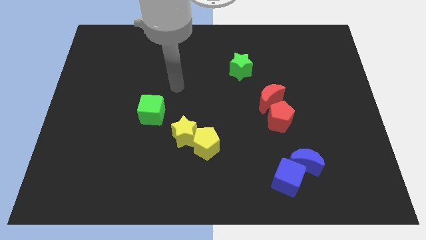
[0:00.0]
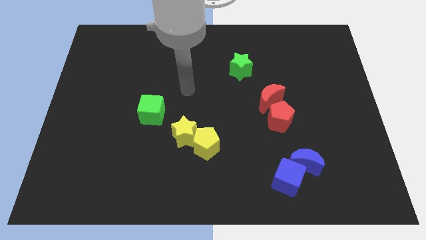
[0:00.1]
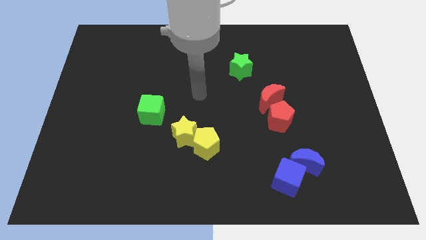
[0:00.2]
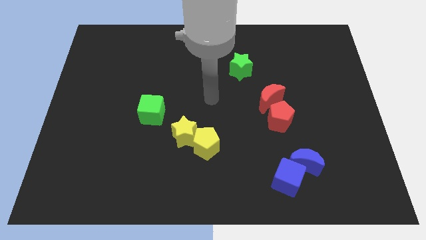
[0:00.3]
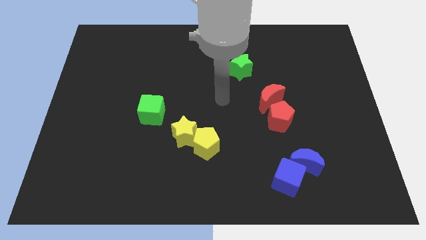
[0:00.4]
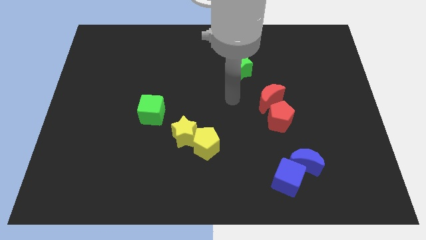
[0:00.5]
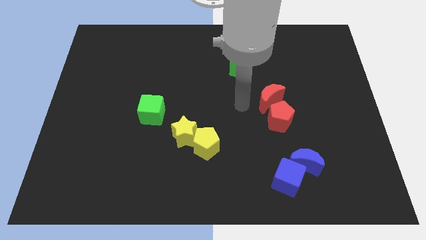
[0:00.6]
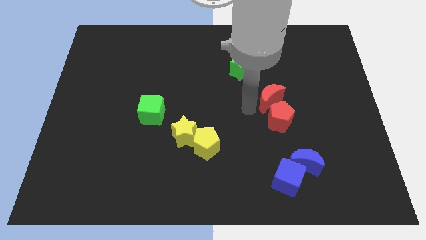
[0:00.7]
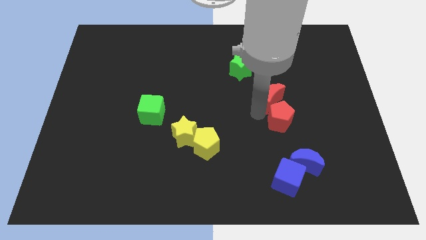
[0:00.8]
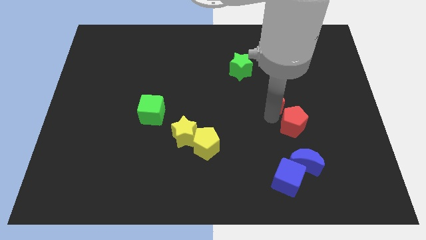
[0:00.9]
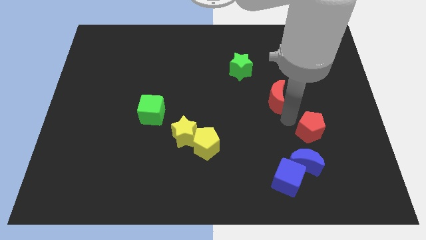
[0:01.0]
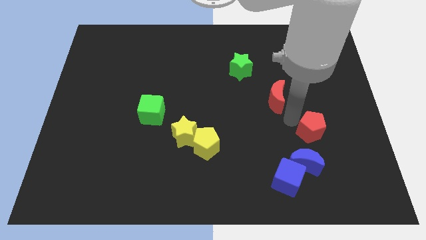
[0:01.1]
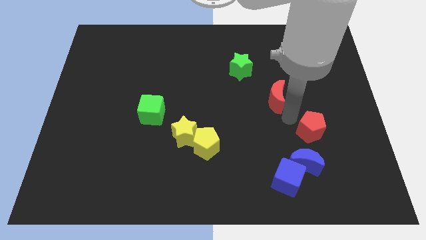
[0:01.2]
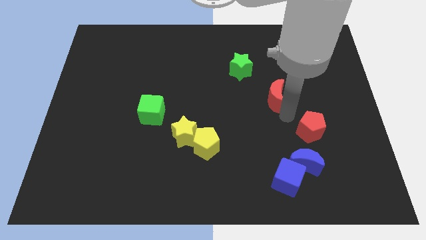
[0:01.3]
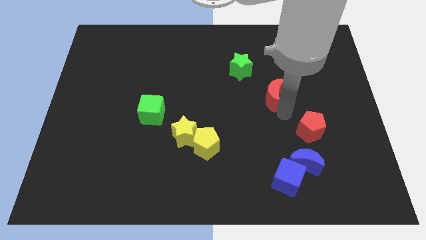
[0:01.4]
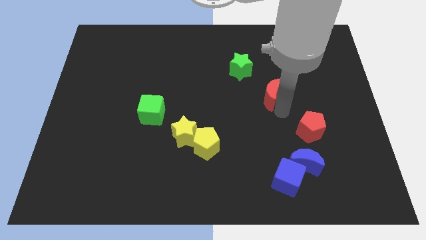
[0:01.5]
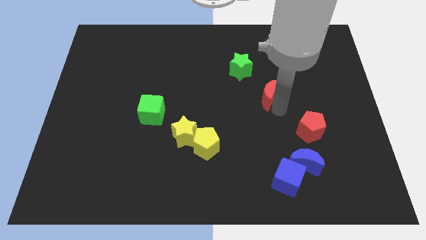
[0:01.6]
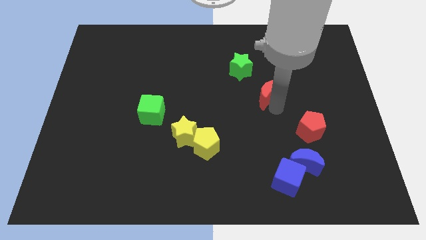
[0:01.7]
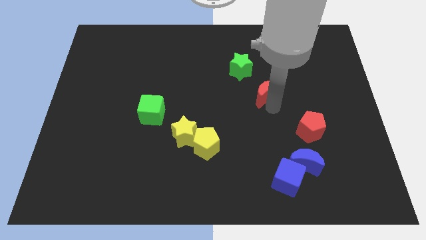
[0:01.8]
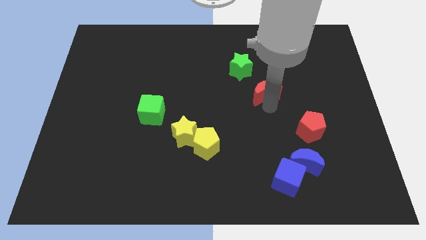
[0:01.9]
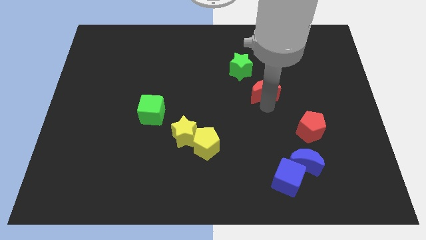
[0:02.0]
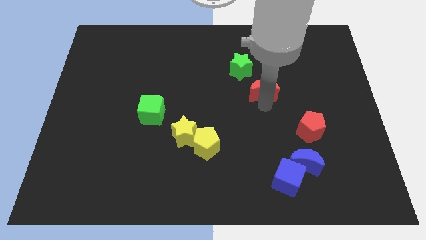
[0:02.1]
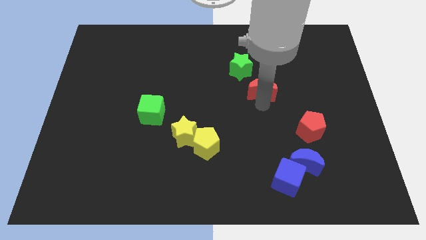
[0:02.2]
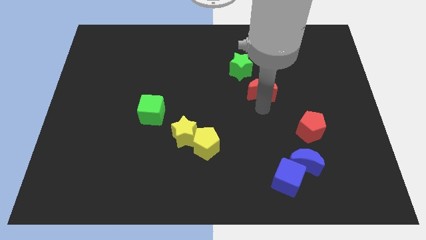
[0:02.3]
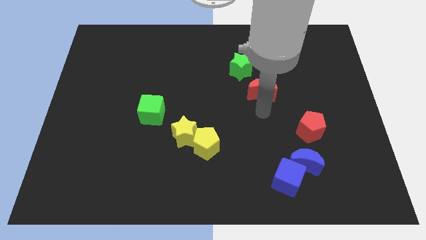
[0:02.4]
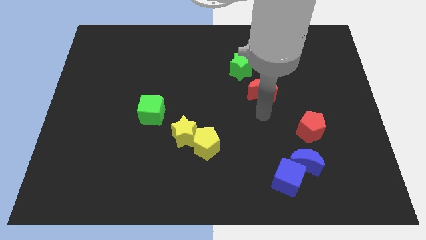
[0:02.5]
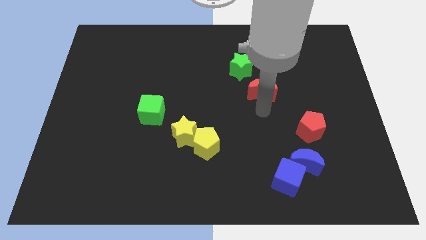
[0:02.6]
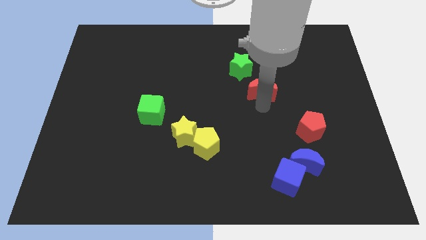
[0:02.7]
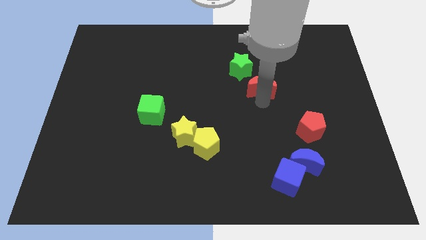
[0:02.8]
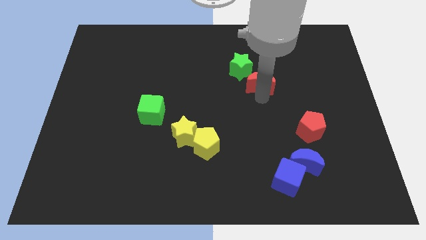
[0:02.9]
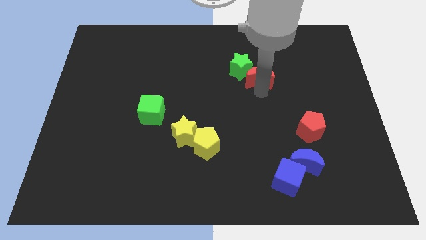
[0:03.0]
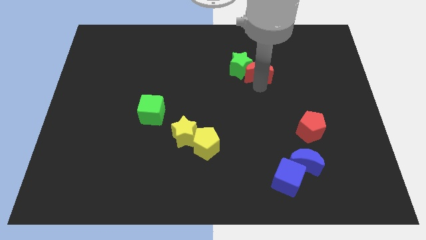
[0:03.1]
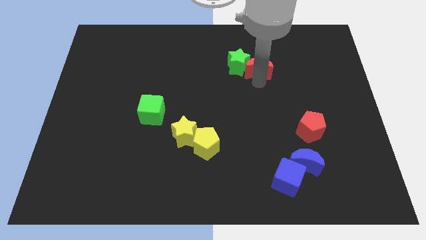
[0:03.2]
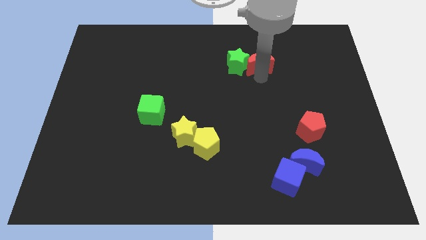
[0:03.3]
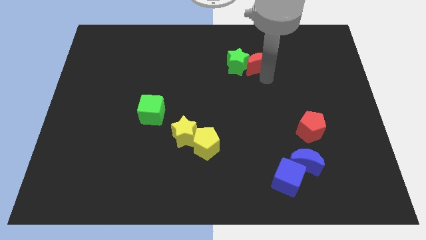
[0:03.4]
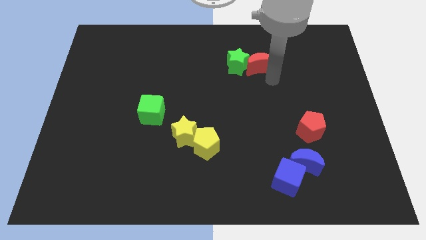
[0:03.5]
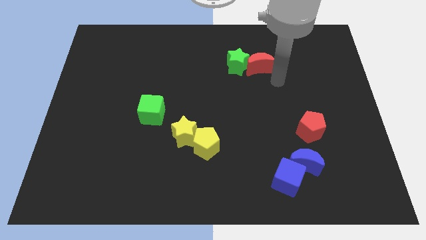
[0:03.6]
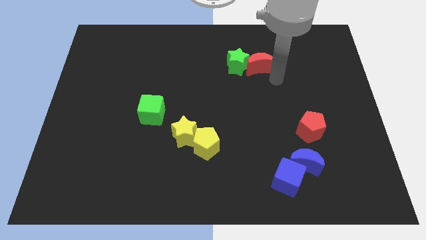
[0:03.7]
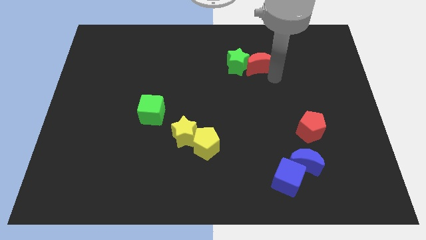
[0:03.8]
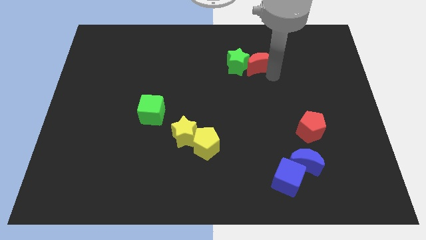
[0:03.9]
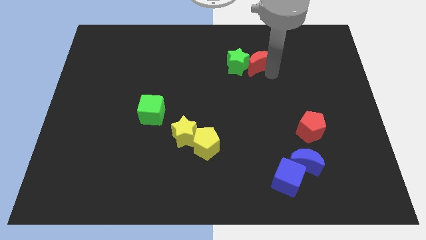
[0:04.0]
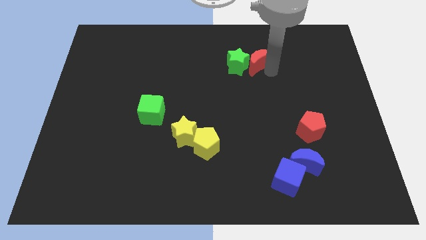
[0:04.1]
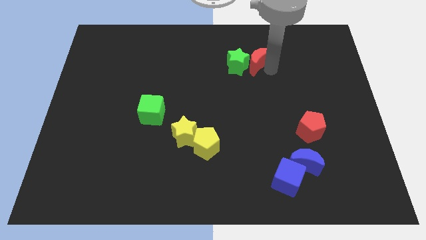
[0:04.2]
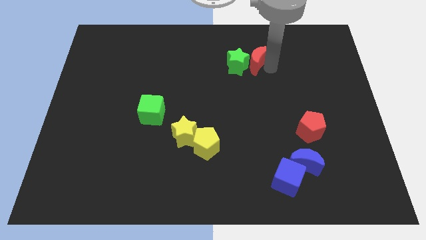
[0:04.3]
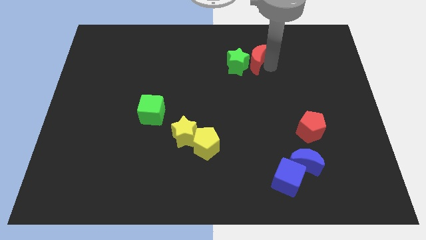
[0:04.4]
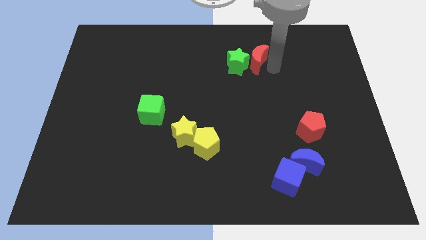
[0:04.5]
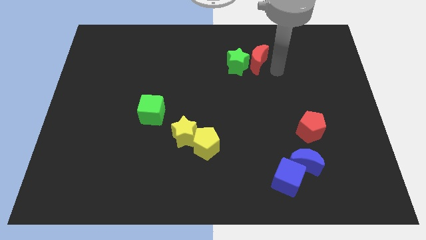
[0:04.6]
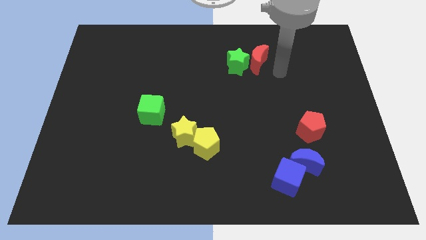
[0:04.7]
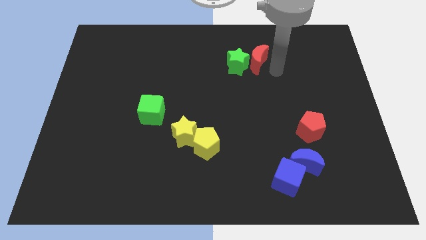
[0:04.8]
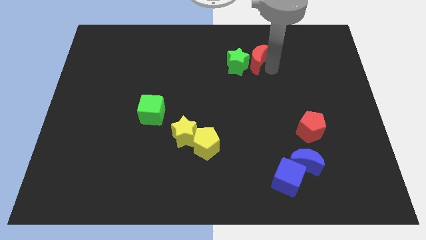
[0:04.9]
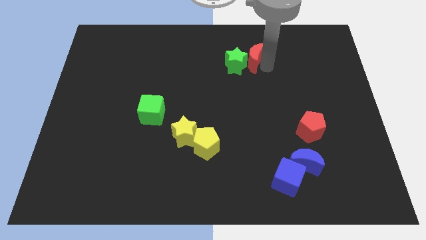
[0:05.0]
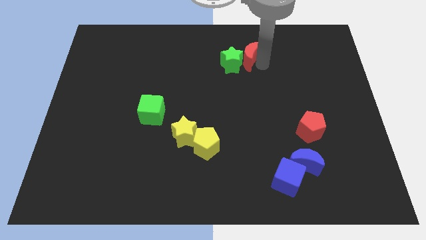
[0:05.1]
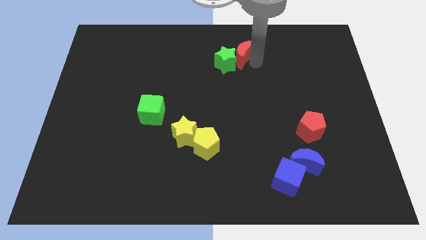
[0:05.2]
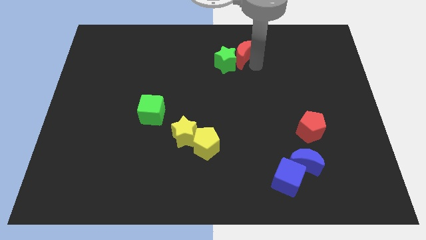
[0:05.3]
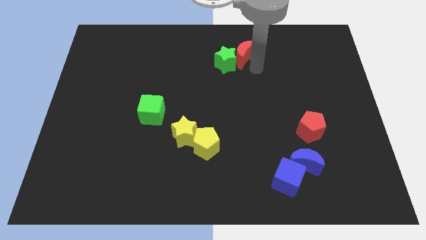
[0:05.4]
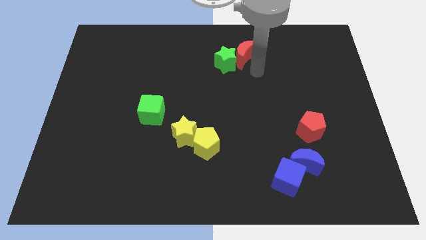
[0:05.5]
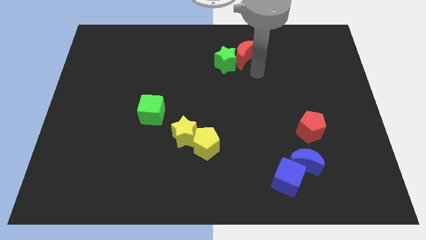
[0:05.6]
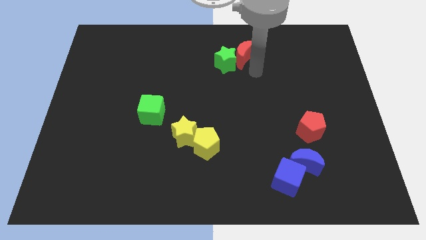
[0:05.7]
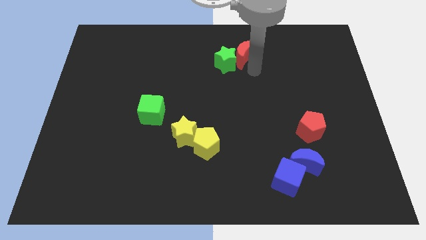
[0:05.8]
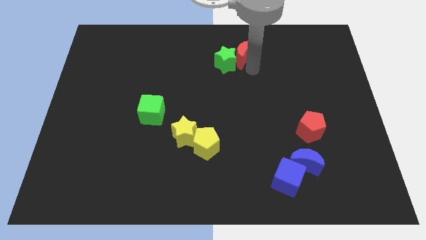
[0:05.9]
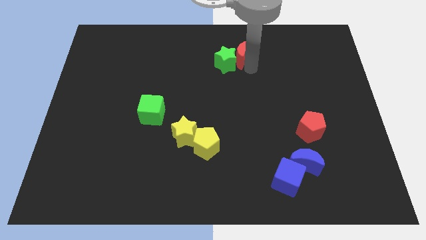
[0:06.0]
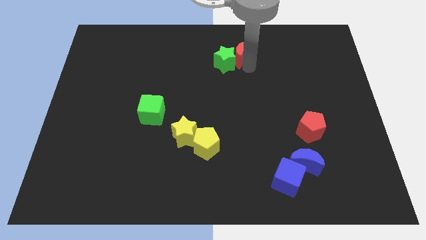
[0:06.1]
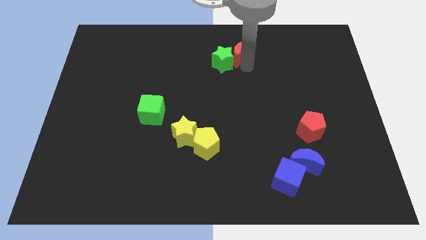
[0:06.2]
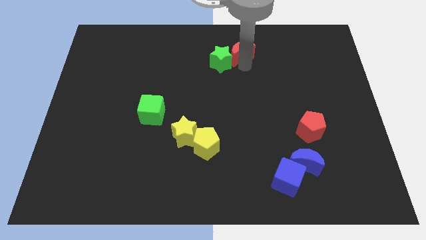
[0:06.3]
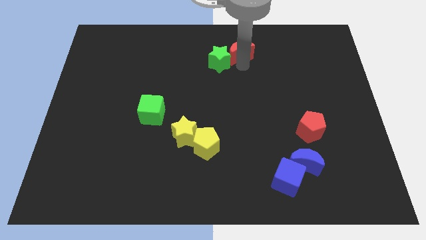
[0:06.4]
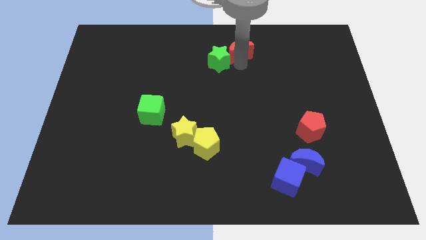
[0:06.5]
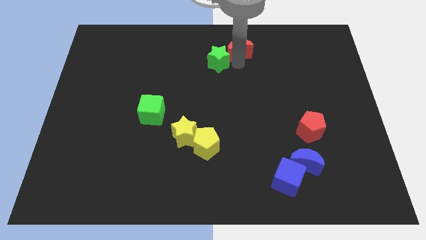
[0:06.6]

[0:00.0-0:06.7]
put the red moon to the towards your base
